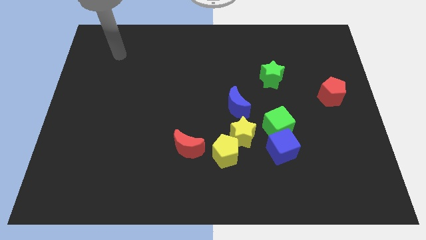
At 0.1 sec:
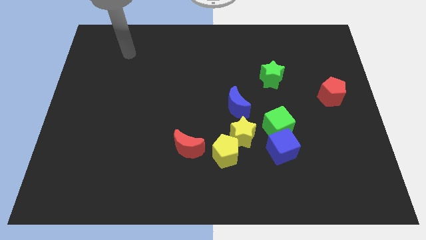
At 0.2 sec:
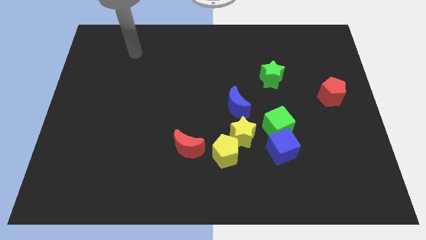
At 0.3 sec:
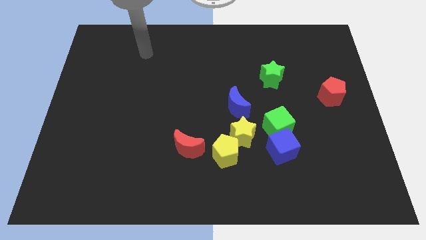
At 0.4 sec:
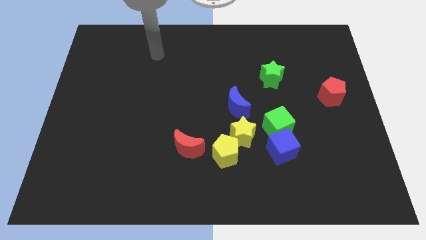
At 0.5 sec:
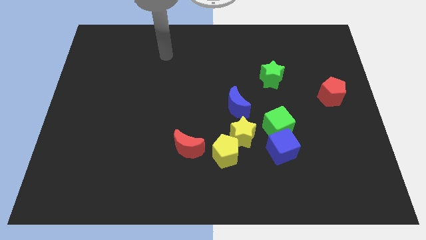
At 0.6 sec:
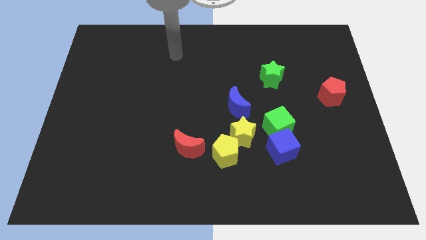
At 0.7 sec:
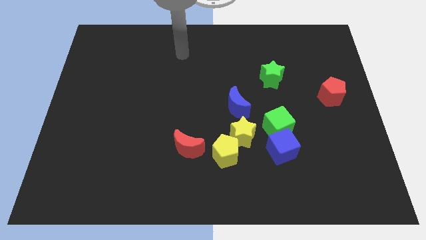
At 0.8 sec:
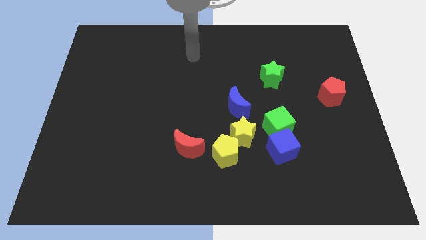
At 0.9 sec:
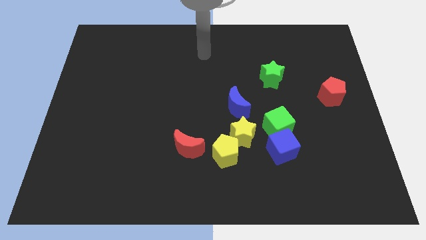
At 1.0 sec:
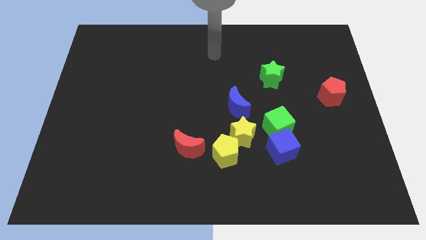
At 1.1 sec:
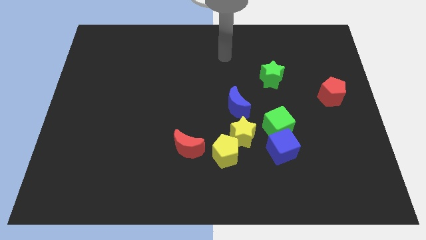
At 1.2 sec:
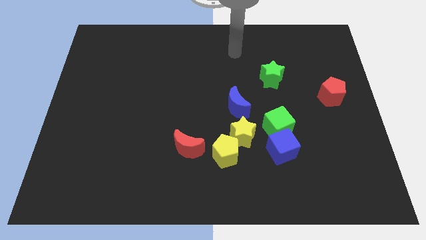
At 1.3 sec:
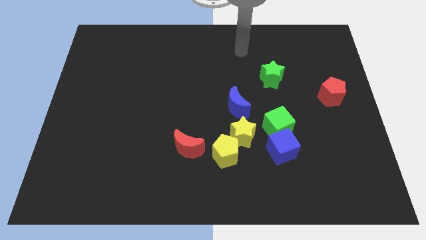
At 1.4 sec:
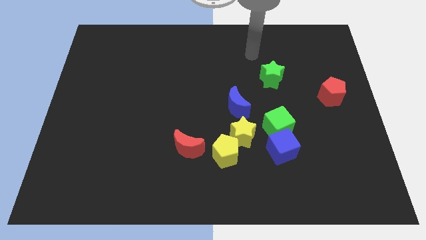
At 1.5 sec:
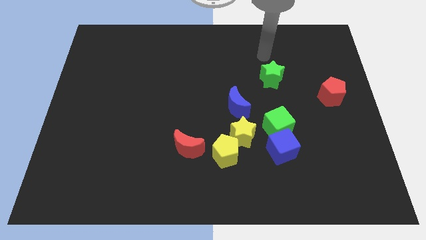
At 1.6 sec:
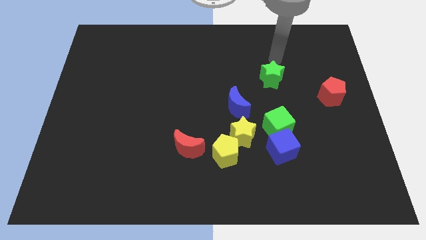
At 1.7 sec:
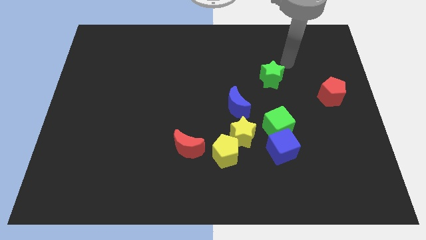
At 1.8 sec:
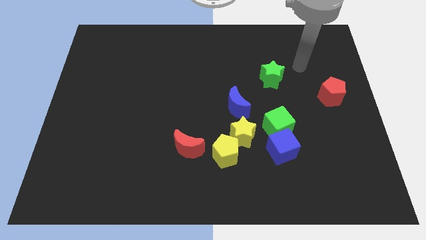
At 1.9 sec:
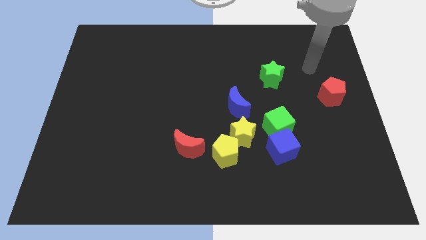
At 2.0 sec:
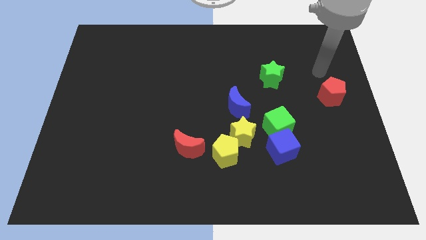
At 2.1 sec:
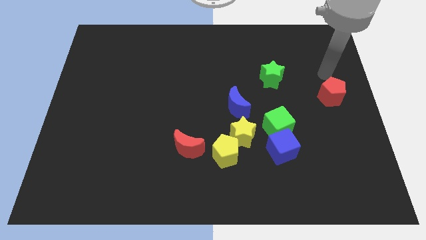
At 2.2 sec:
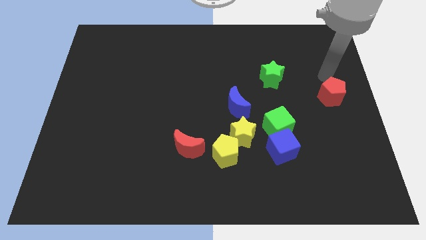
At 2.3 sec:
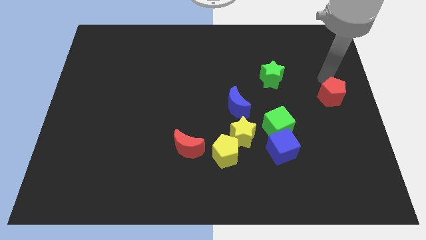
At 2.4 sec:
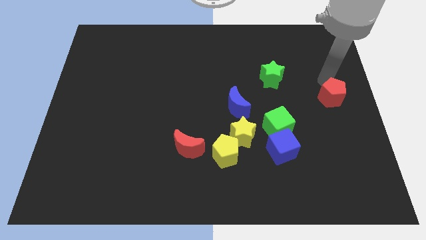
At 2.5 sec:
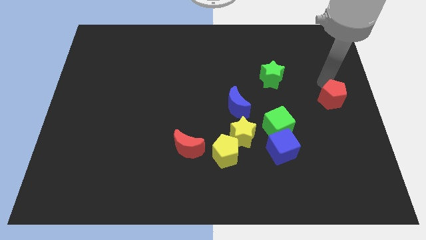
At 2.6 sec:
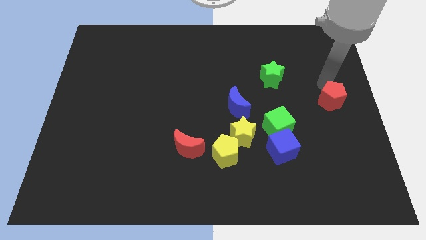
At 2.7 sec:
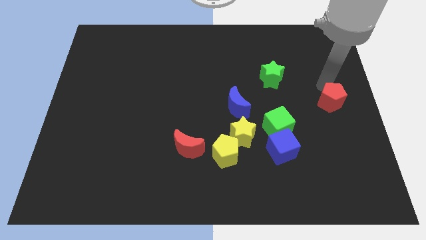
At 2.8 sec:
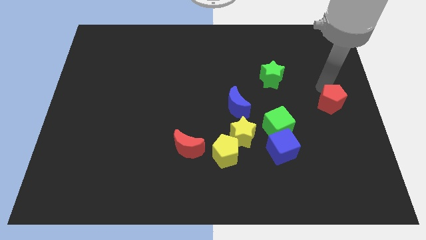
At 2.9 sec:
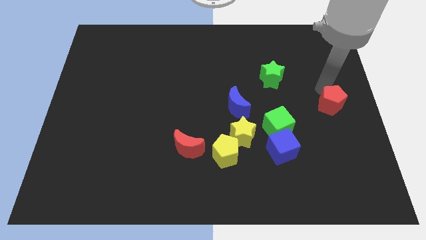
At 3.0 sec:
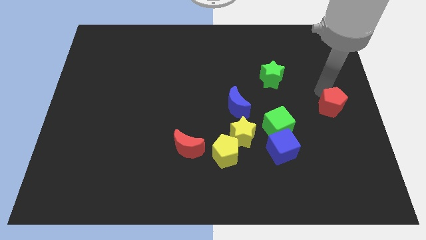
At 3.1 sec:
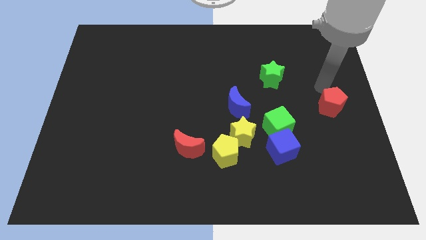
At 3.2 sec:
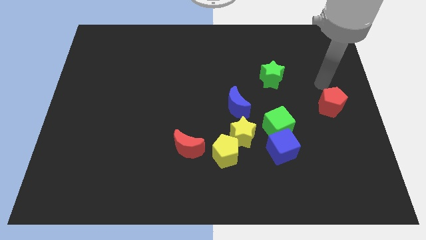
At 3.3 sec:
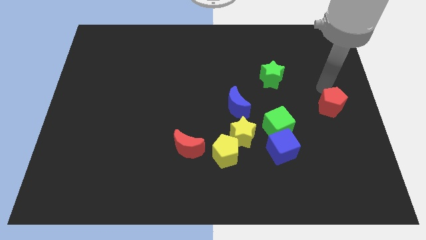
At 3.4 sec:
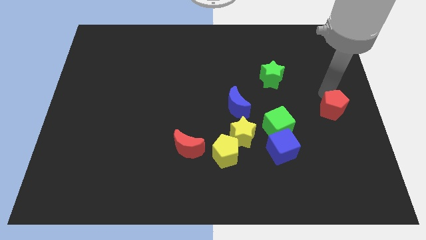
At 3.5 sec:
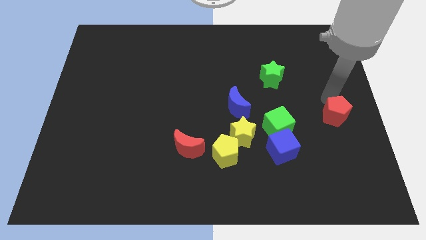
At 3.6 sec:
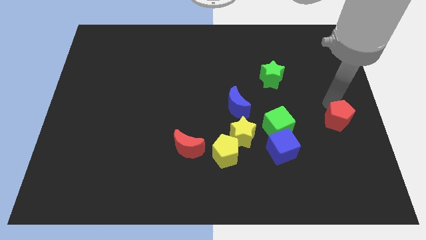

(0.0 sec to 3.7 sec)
push the red pentagon downwards a bit

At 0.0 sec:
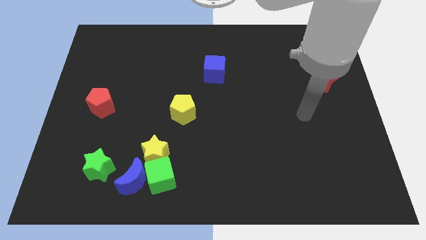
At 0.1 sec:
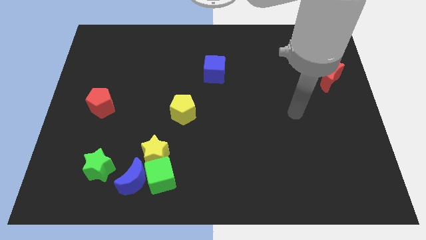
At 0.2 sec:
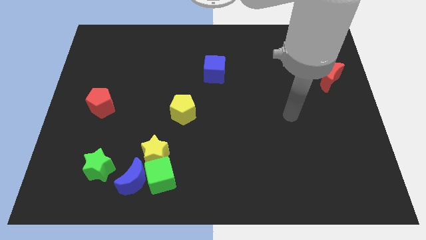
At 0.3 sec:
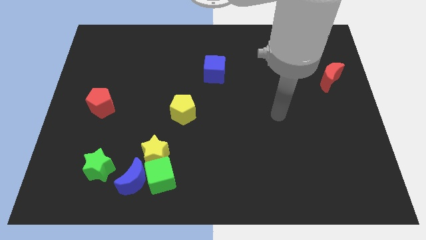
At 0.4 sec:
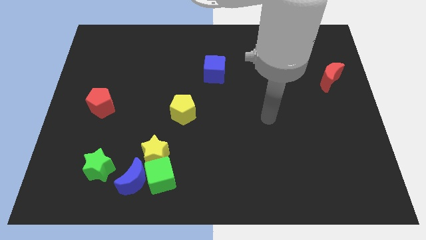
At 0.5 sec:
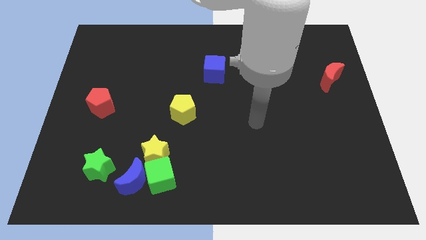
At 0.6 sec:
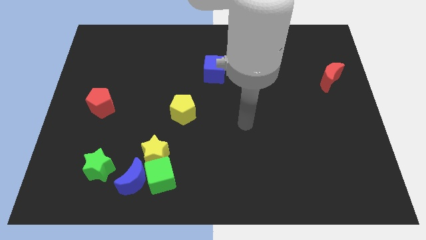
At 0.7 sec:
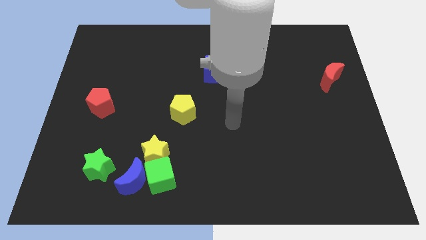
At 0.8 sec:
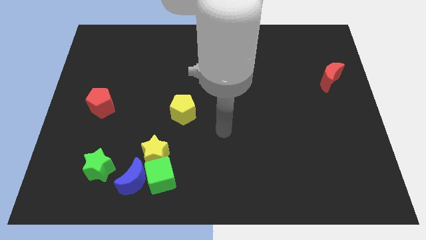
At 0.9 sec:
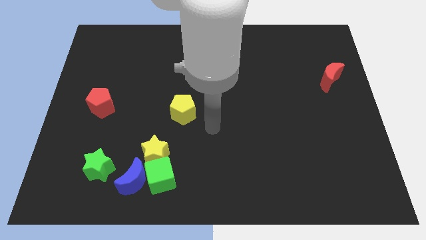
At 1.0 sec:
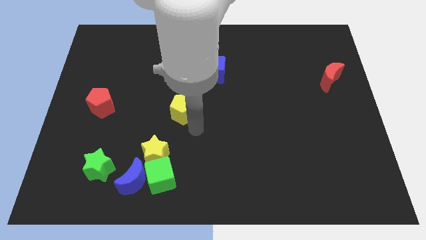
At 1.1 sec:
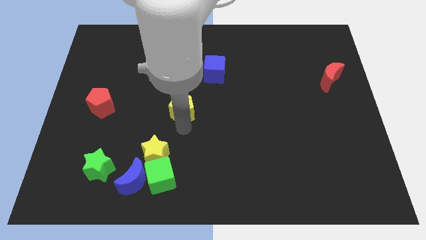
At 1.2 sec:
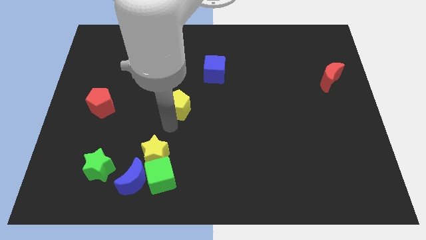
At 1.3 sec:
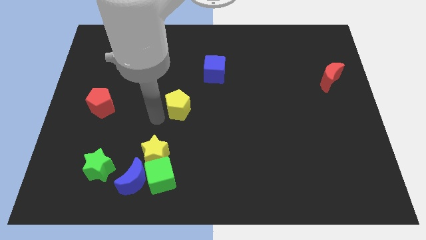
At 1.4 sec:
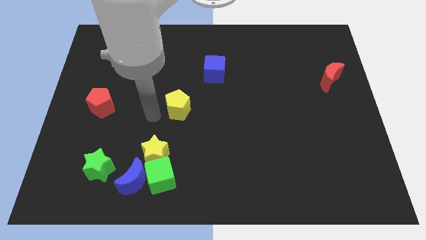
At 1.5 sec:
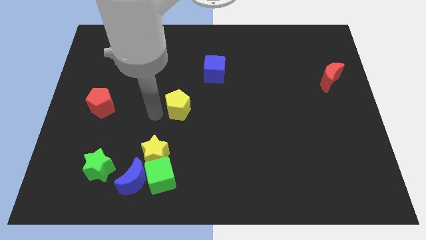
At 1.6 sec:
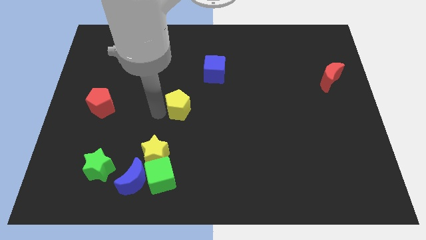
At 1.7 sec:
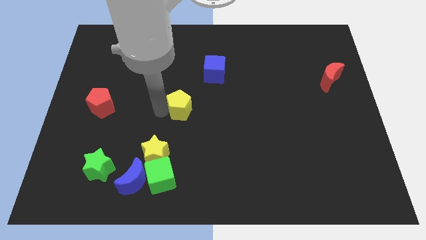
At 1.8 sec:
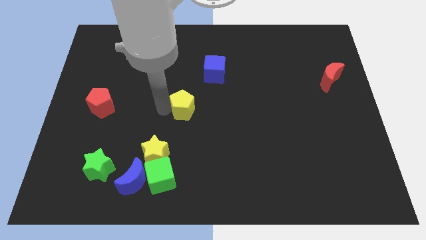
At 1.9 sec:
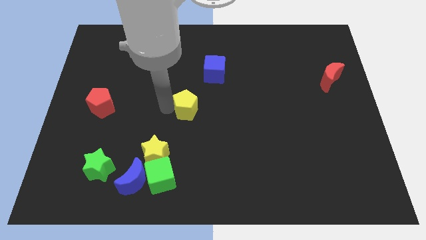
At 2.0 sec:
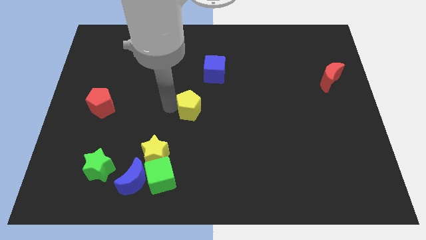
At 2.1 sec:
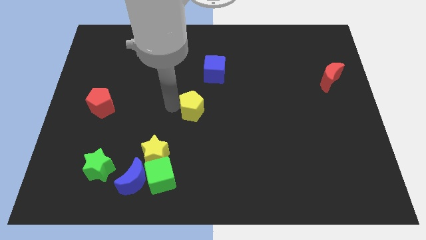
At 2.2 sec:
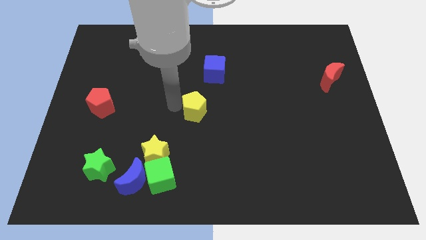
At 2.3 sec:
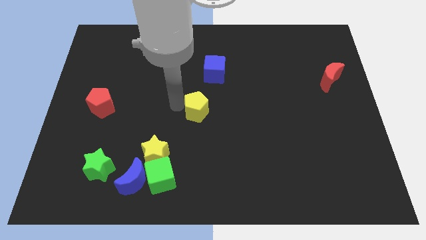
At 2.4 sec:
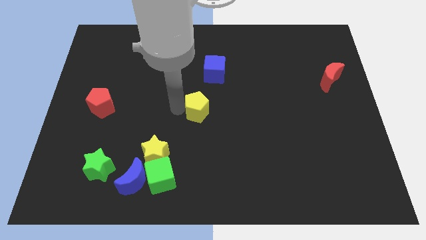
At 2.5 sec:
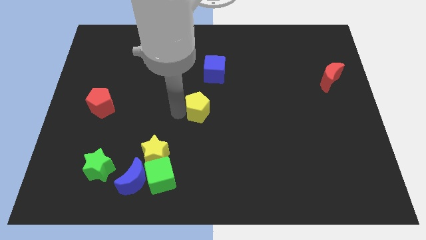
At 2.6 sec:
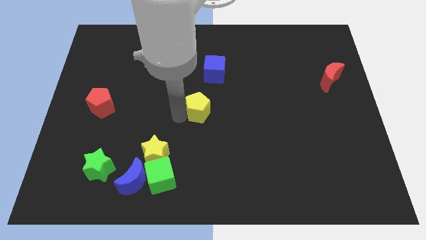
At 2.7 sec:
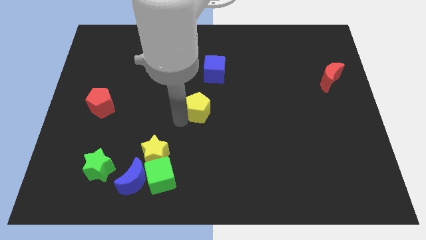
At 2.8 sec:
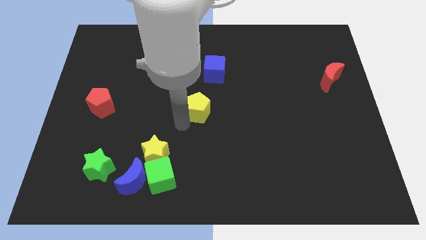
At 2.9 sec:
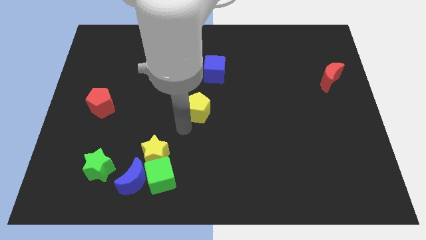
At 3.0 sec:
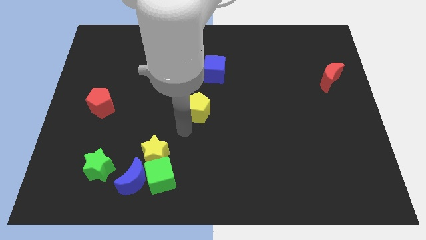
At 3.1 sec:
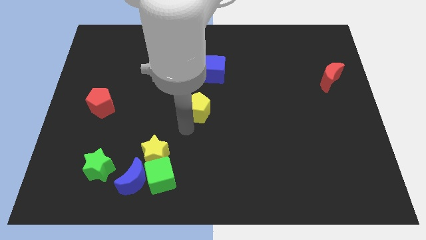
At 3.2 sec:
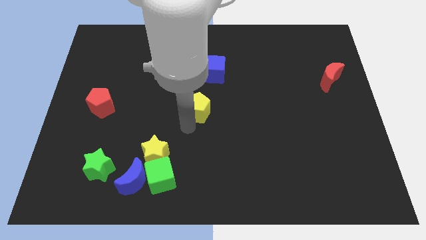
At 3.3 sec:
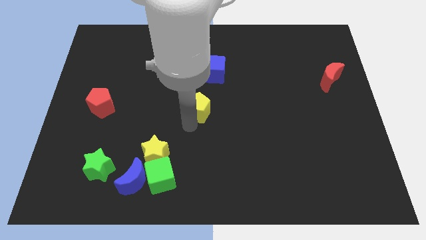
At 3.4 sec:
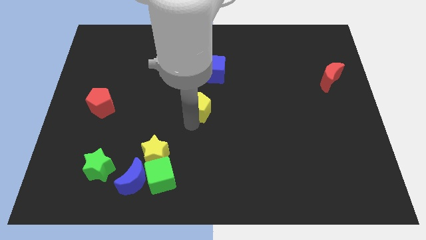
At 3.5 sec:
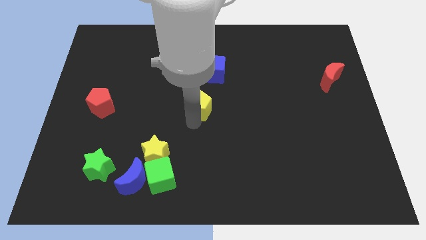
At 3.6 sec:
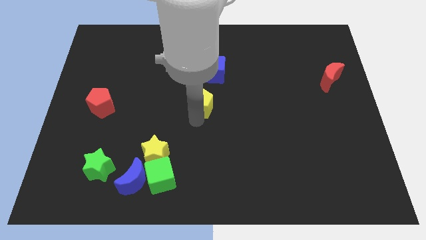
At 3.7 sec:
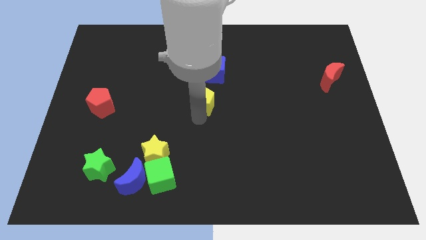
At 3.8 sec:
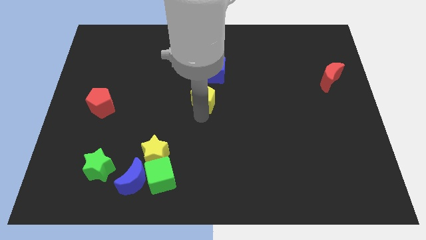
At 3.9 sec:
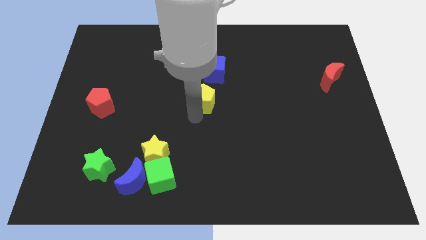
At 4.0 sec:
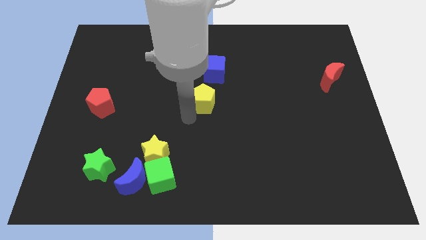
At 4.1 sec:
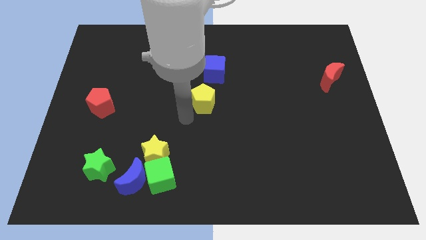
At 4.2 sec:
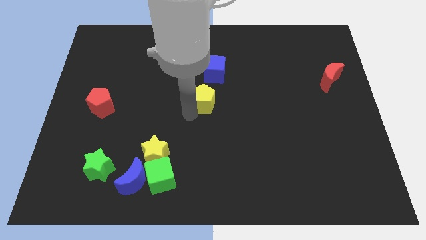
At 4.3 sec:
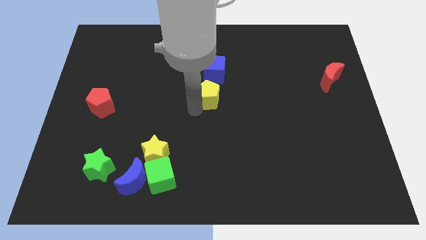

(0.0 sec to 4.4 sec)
slightly push the yellow pentagon upwards and then to the right
